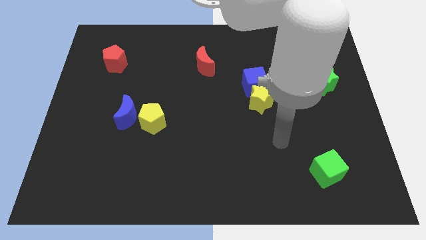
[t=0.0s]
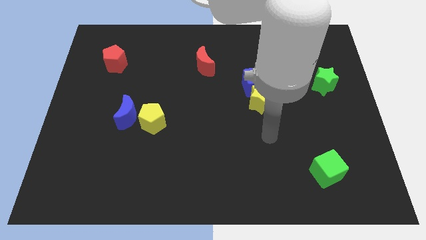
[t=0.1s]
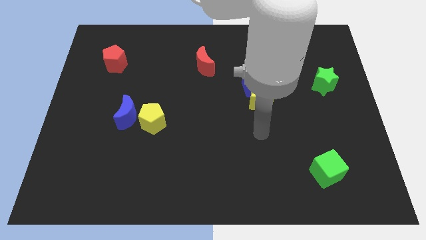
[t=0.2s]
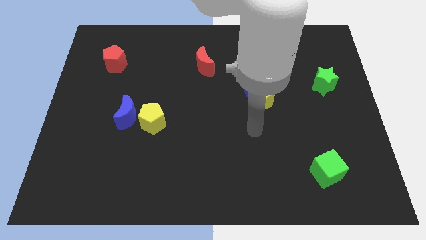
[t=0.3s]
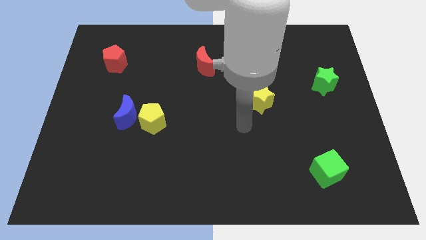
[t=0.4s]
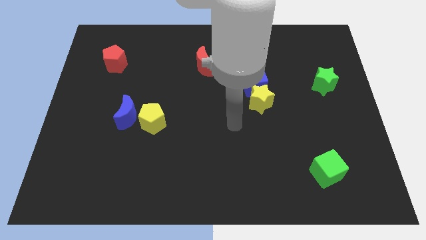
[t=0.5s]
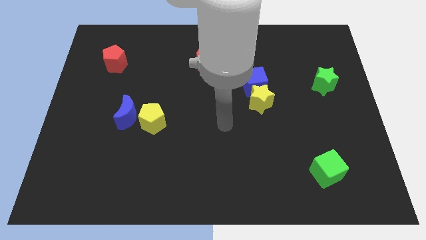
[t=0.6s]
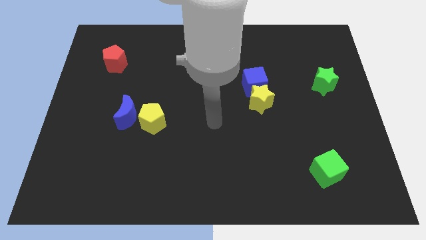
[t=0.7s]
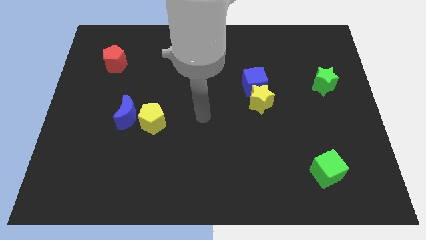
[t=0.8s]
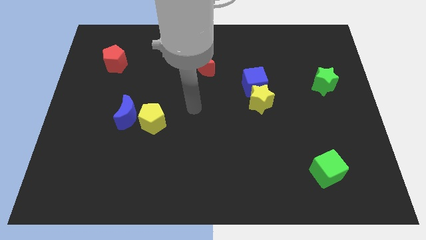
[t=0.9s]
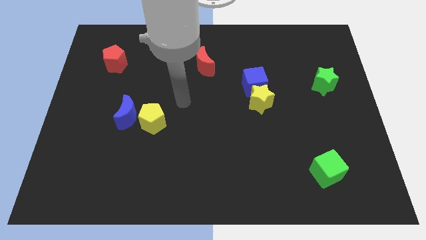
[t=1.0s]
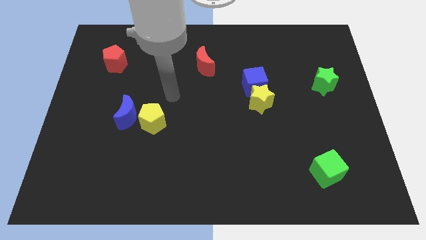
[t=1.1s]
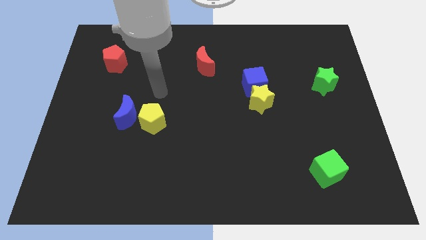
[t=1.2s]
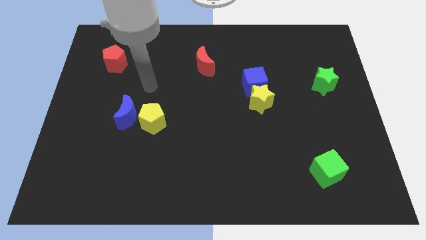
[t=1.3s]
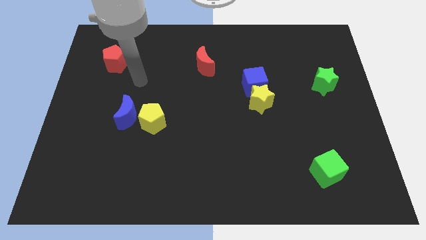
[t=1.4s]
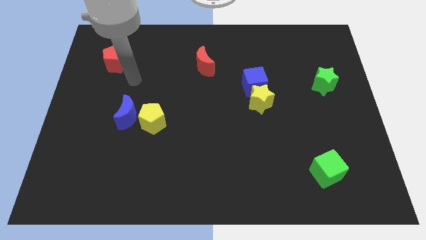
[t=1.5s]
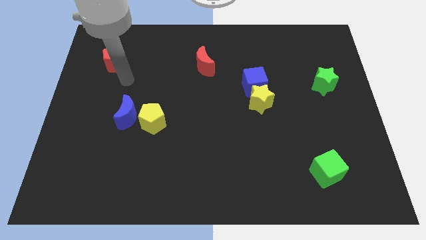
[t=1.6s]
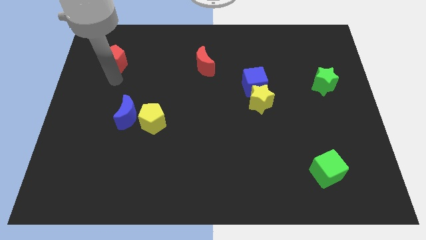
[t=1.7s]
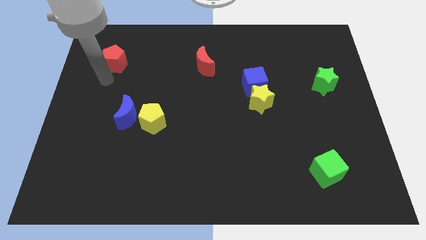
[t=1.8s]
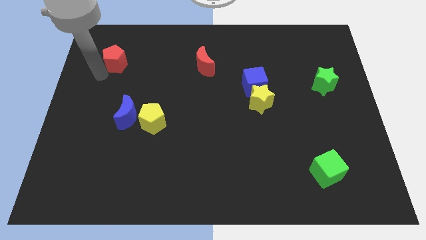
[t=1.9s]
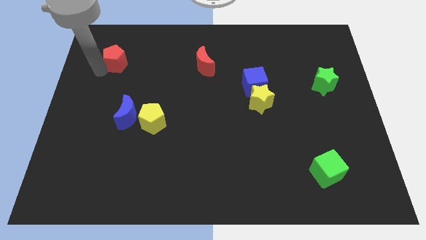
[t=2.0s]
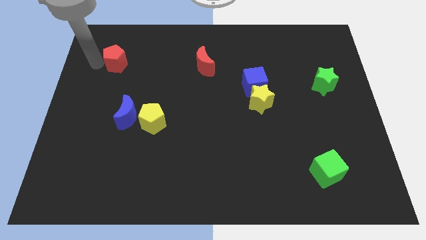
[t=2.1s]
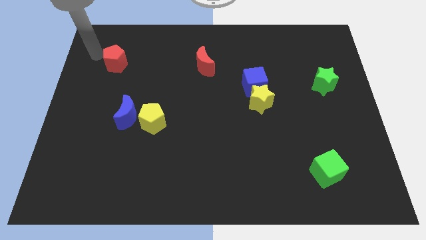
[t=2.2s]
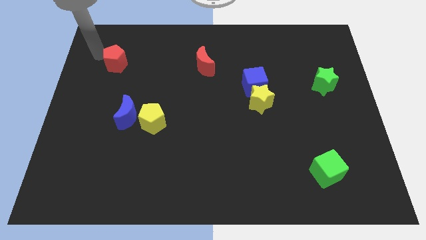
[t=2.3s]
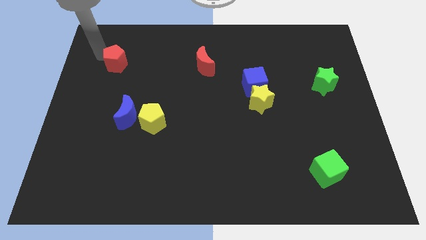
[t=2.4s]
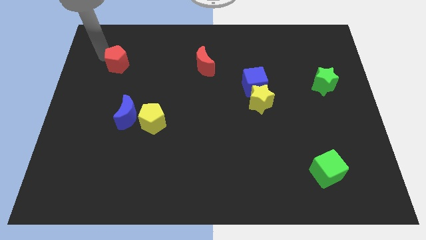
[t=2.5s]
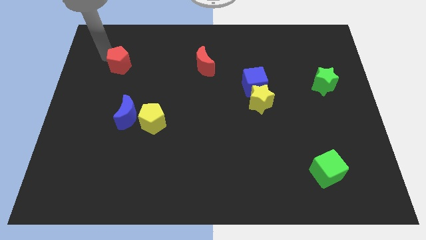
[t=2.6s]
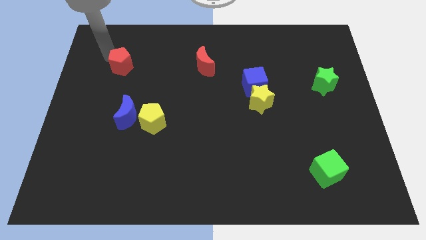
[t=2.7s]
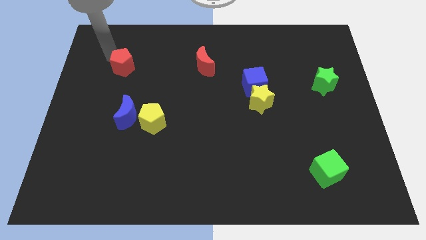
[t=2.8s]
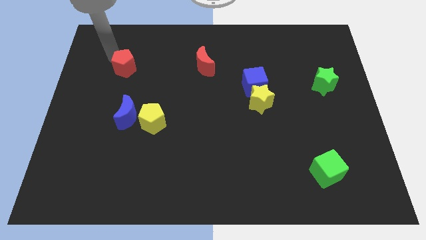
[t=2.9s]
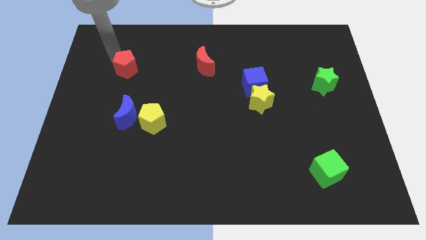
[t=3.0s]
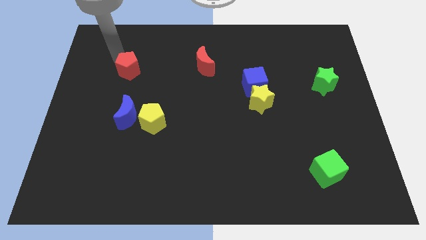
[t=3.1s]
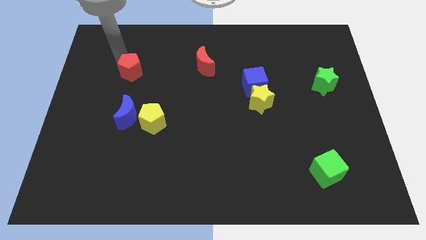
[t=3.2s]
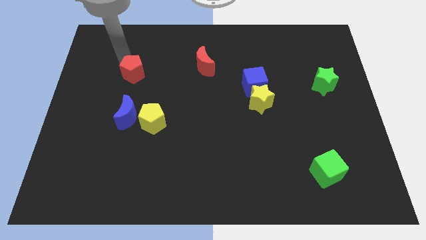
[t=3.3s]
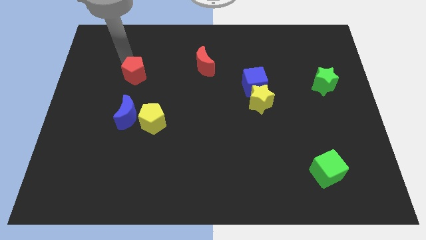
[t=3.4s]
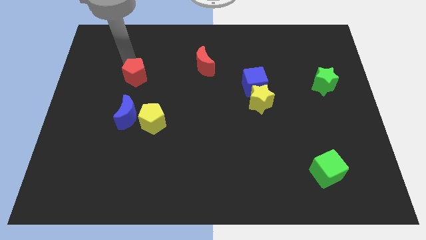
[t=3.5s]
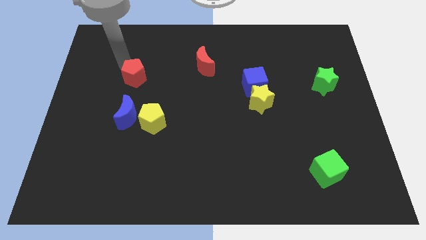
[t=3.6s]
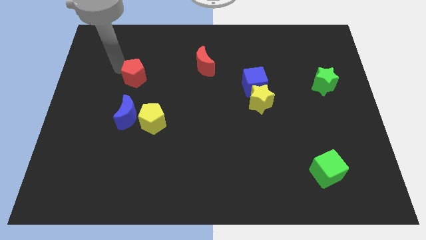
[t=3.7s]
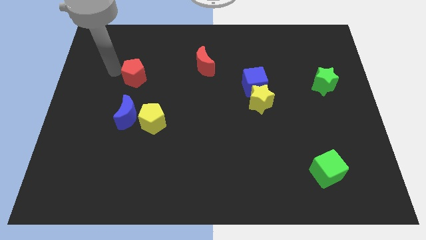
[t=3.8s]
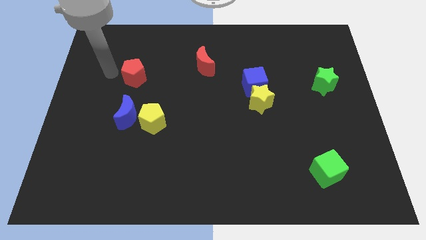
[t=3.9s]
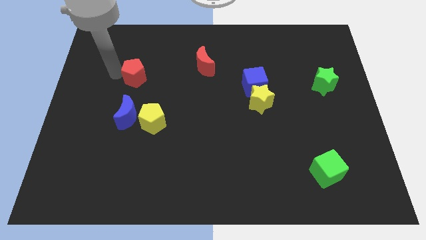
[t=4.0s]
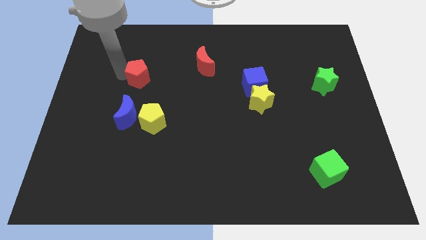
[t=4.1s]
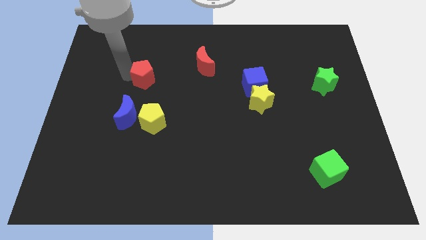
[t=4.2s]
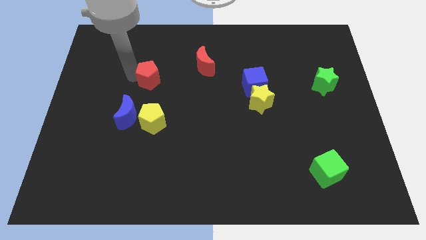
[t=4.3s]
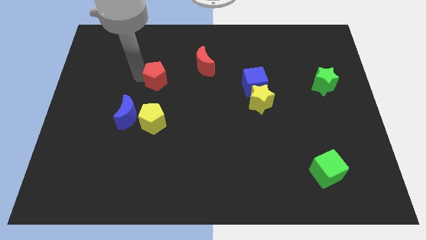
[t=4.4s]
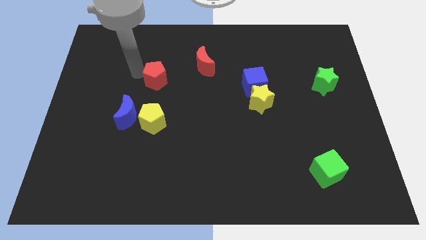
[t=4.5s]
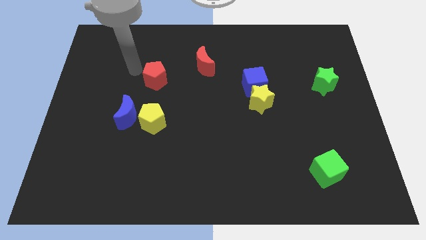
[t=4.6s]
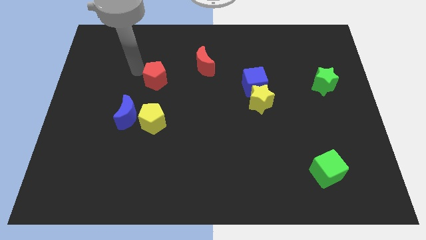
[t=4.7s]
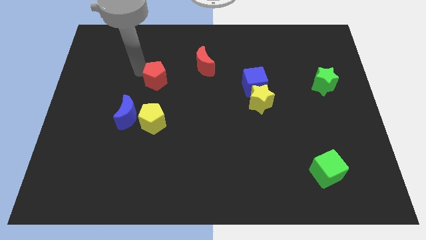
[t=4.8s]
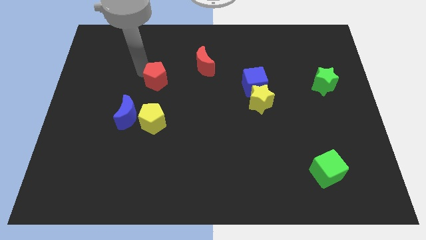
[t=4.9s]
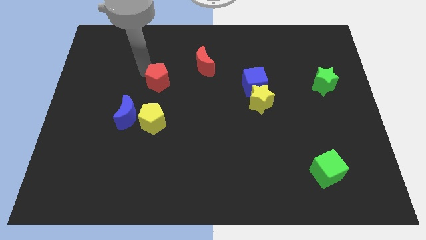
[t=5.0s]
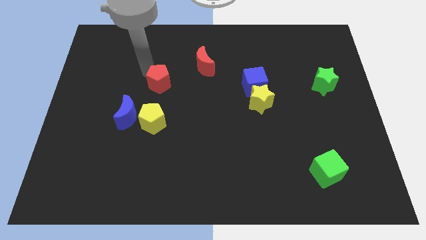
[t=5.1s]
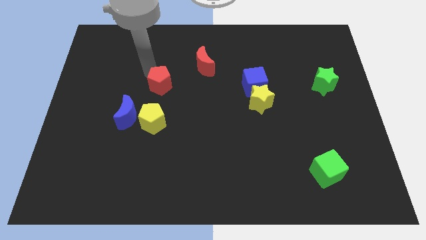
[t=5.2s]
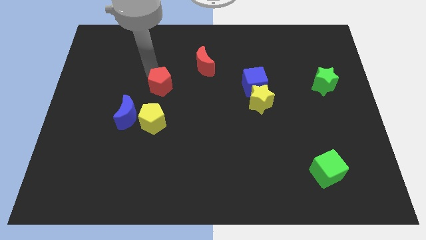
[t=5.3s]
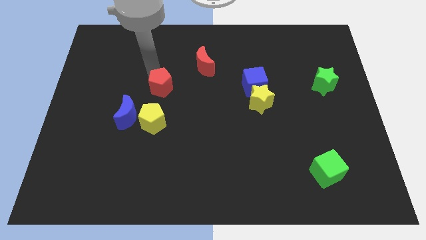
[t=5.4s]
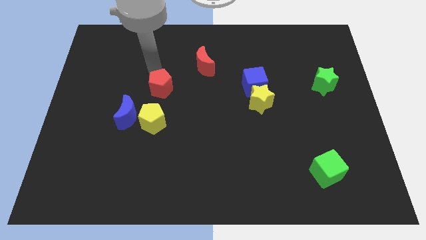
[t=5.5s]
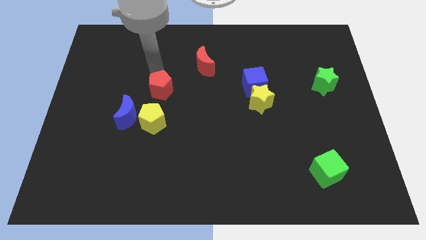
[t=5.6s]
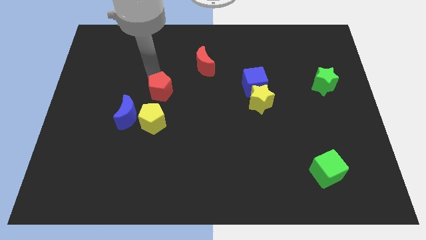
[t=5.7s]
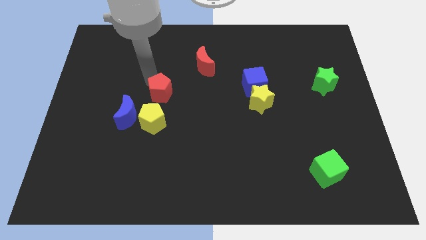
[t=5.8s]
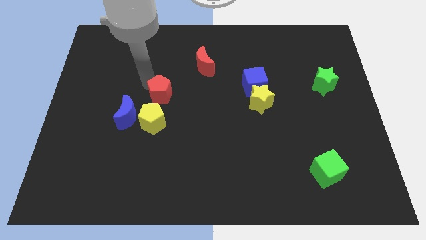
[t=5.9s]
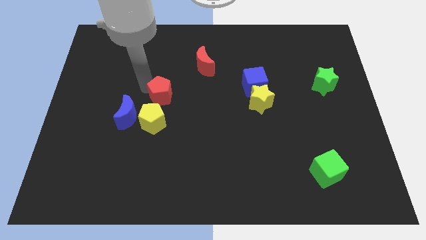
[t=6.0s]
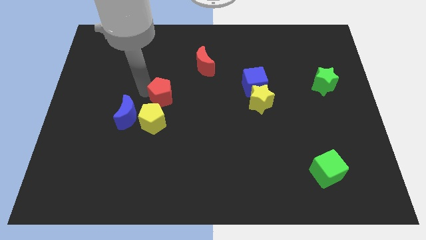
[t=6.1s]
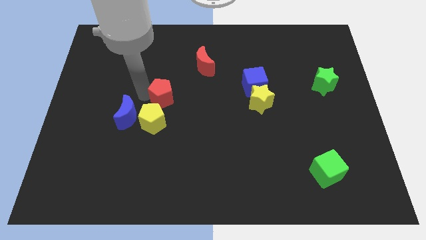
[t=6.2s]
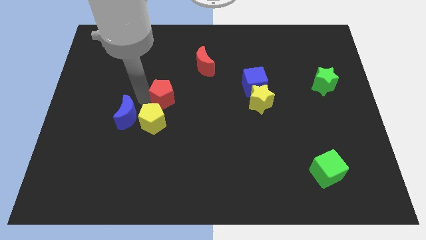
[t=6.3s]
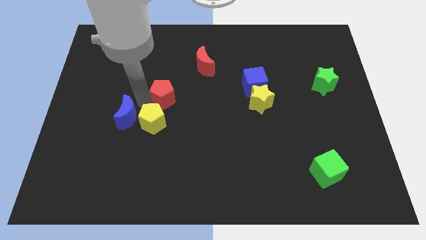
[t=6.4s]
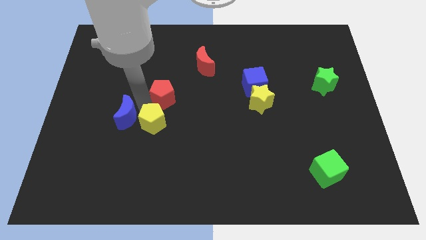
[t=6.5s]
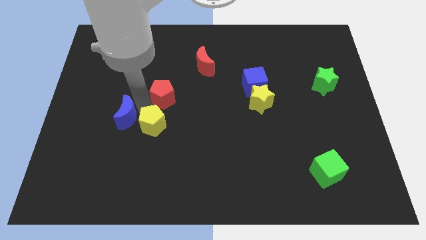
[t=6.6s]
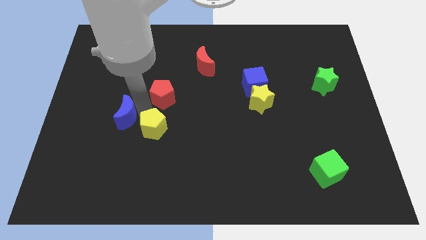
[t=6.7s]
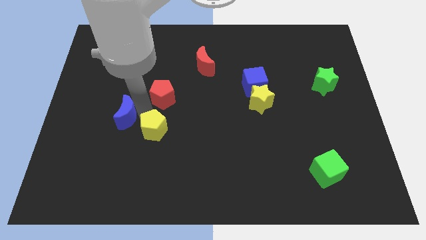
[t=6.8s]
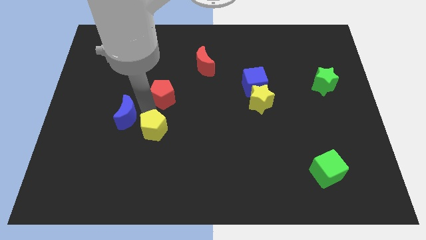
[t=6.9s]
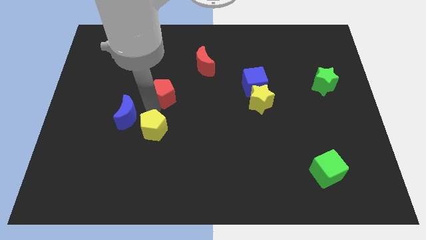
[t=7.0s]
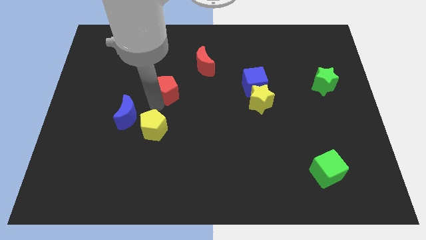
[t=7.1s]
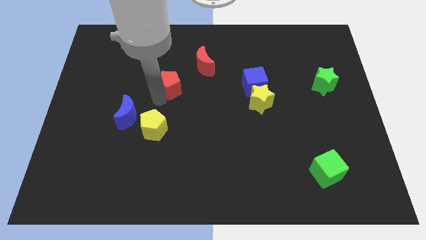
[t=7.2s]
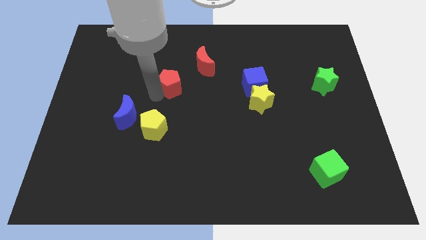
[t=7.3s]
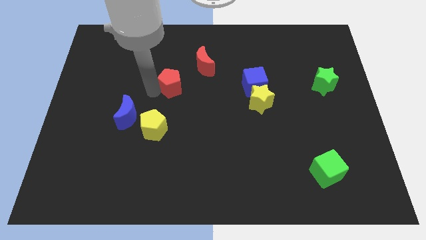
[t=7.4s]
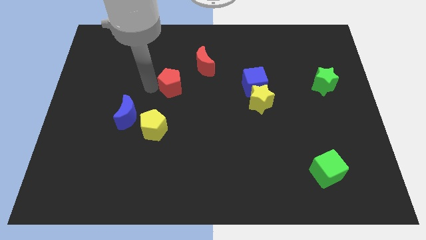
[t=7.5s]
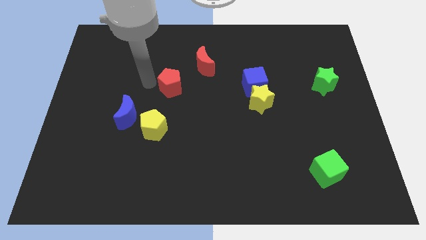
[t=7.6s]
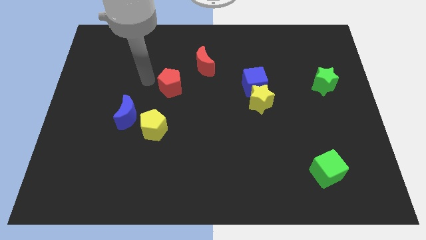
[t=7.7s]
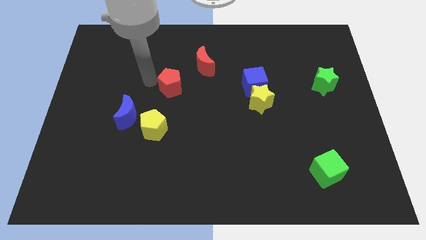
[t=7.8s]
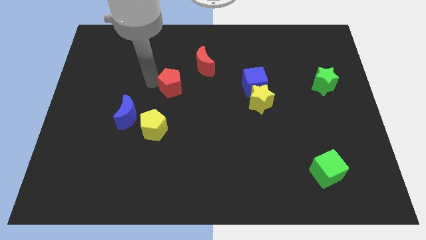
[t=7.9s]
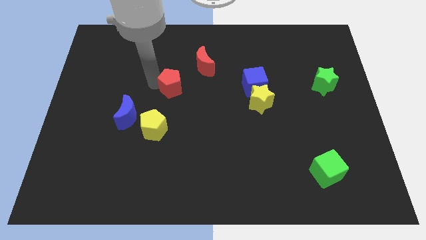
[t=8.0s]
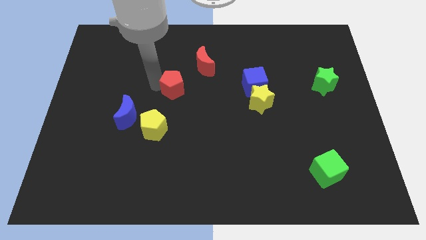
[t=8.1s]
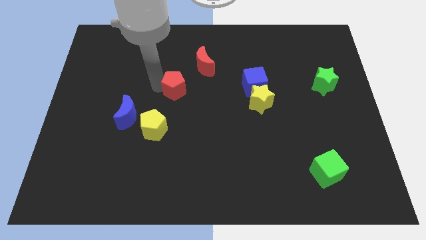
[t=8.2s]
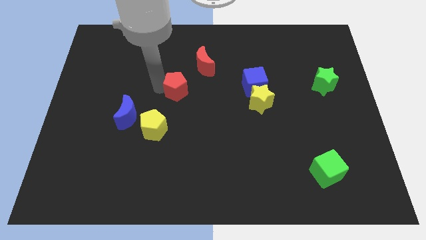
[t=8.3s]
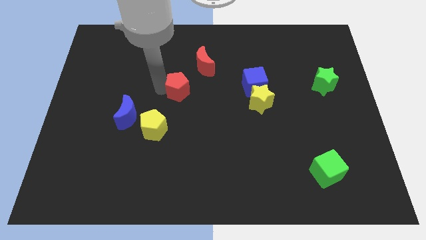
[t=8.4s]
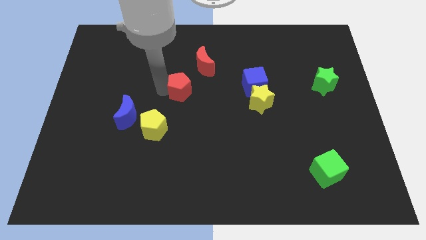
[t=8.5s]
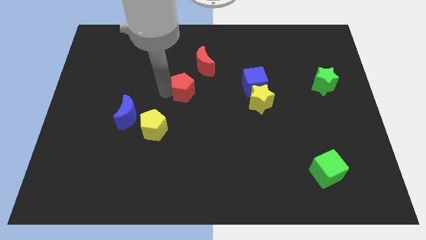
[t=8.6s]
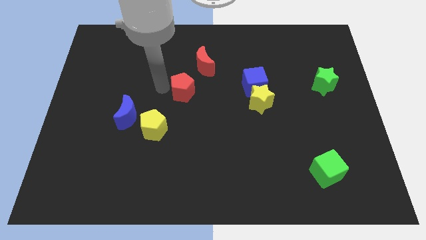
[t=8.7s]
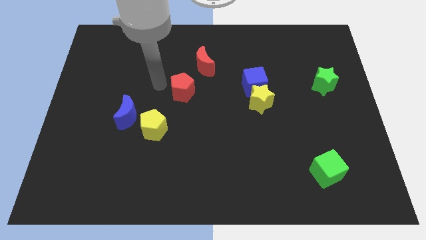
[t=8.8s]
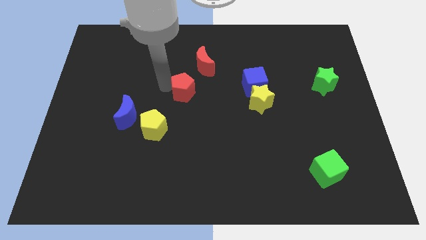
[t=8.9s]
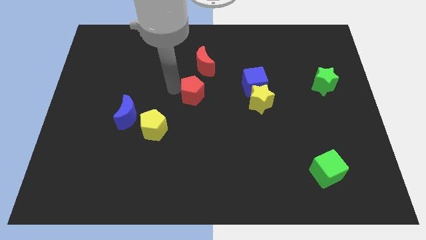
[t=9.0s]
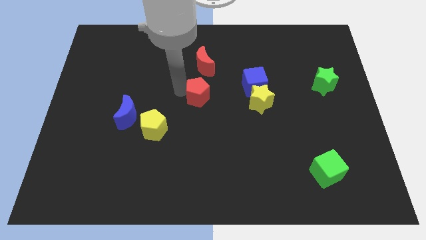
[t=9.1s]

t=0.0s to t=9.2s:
slide the red pentagon left of the yellow star
